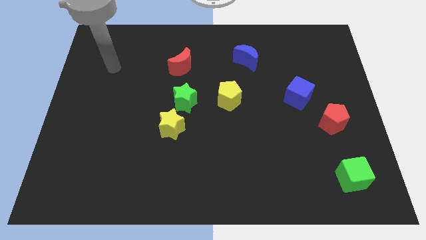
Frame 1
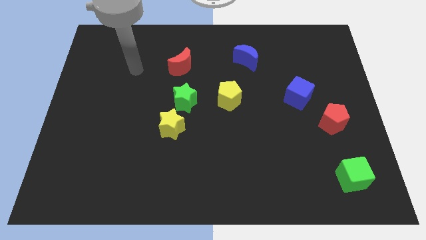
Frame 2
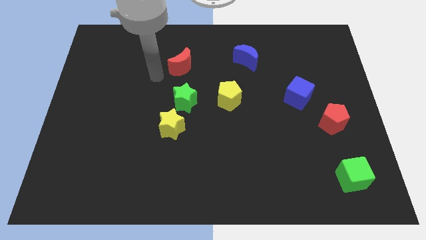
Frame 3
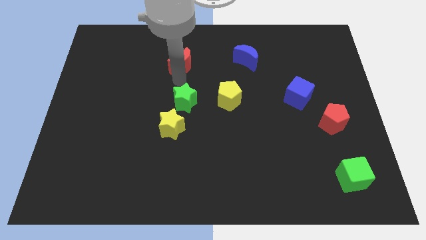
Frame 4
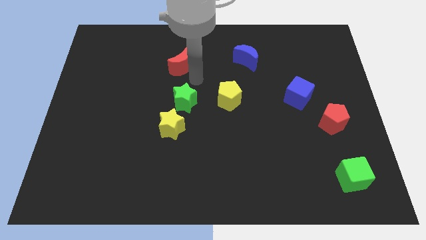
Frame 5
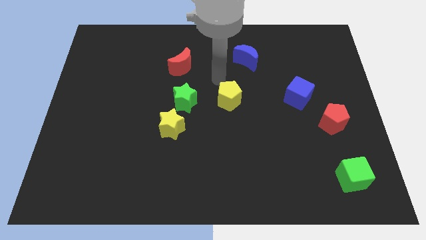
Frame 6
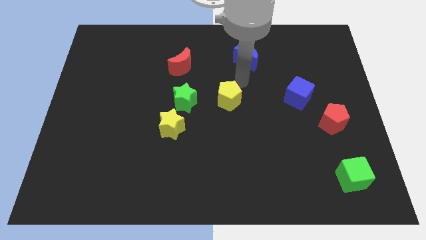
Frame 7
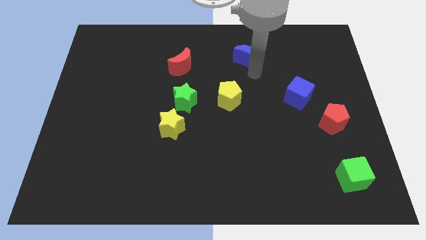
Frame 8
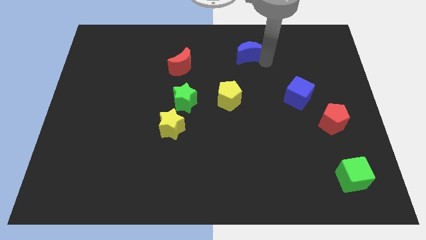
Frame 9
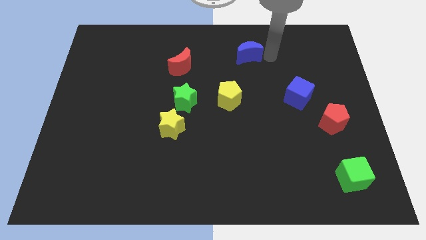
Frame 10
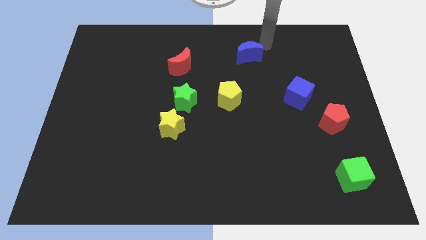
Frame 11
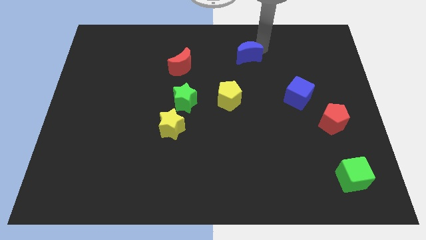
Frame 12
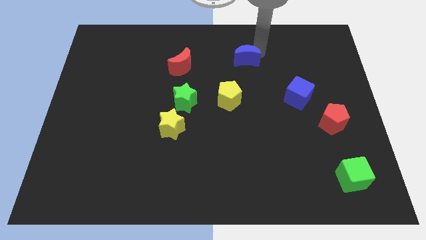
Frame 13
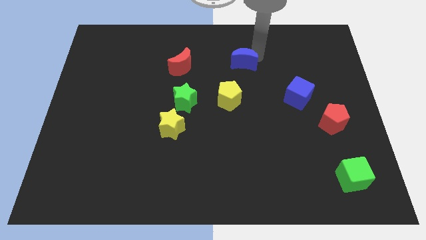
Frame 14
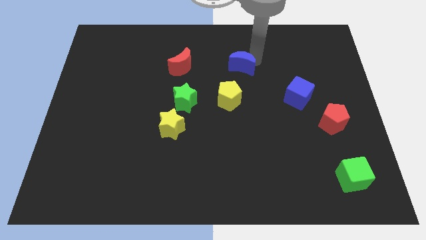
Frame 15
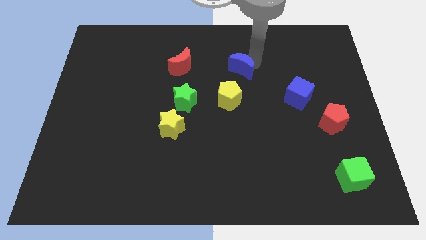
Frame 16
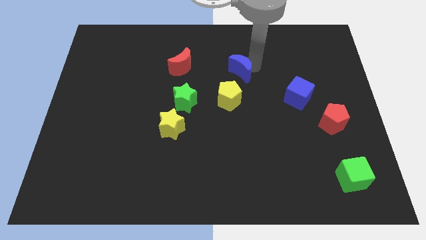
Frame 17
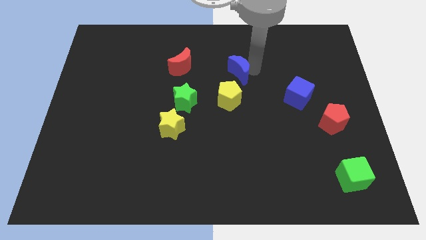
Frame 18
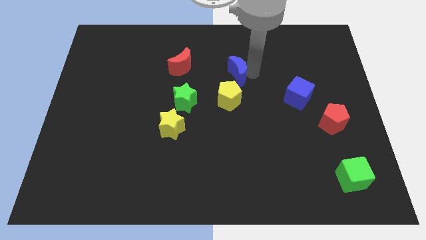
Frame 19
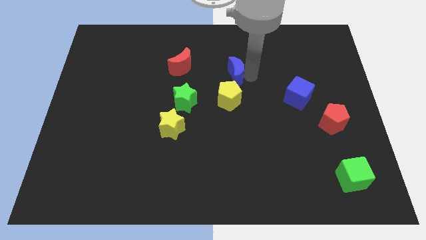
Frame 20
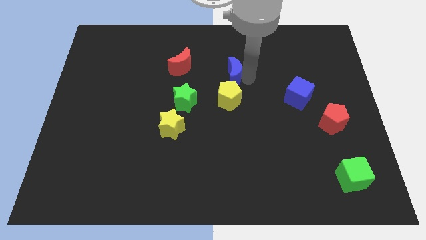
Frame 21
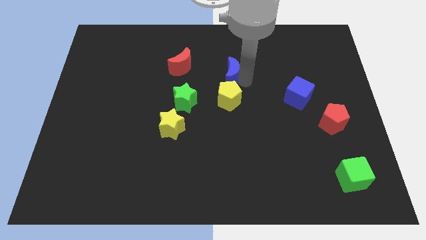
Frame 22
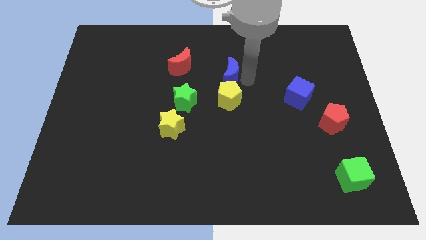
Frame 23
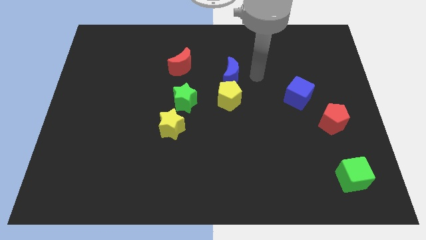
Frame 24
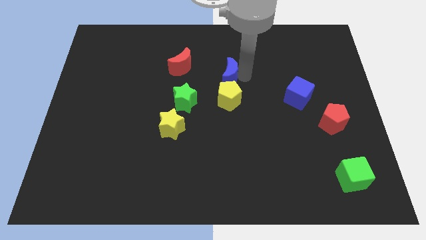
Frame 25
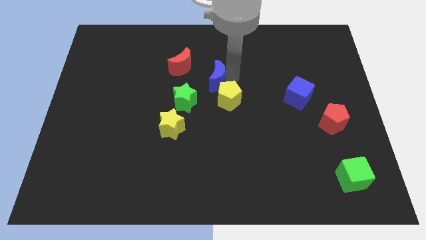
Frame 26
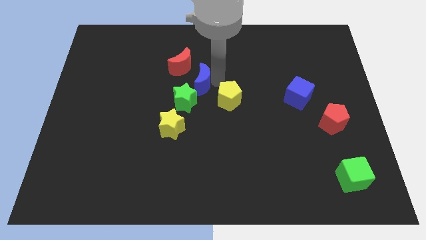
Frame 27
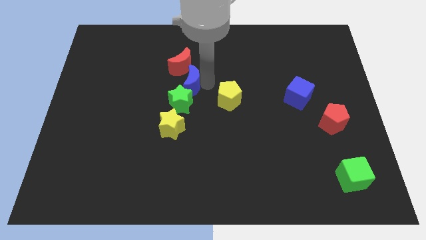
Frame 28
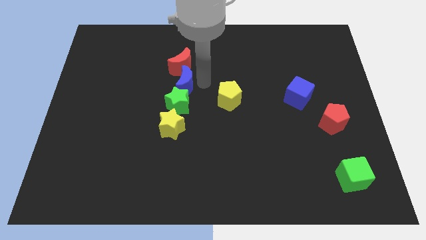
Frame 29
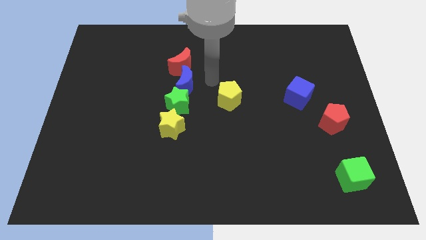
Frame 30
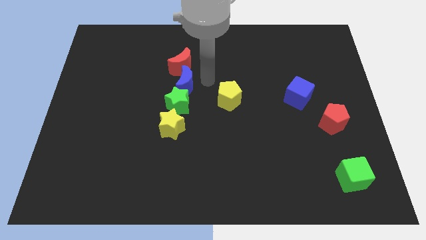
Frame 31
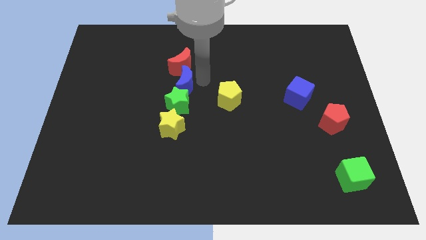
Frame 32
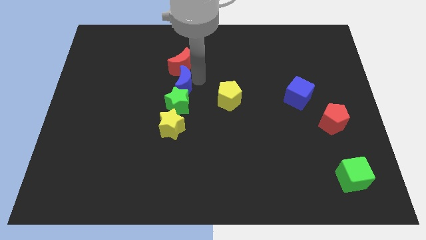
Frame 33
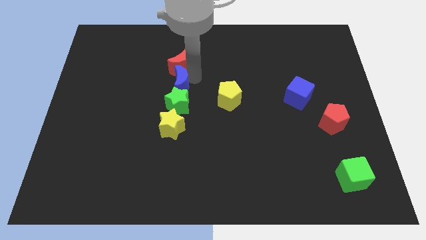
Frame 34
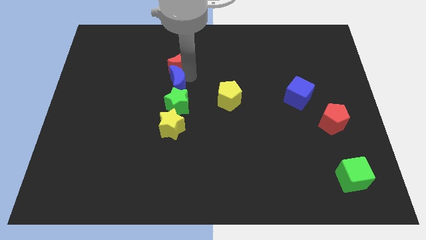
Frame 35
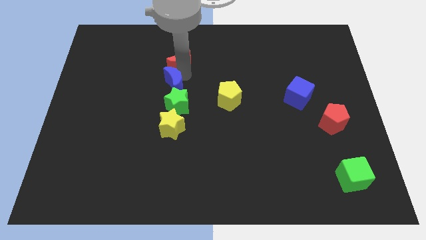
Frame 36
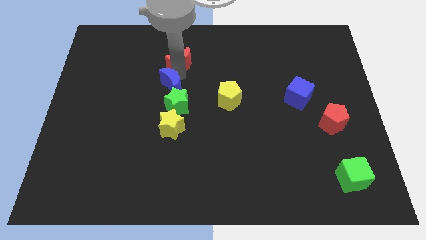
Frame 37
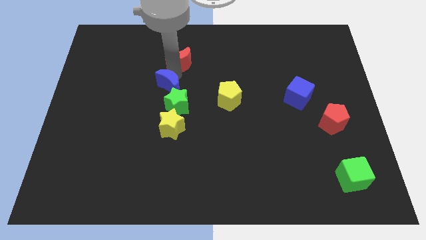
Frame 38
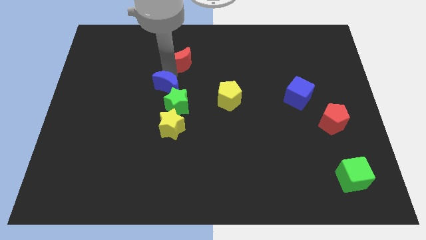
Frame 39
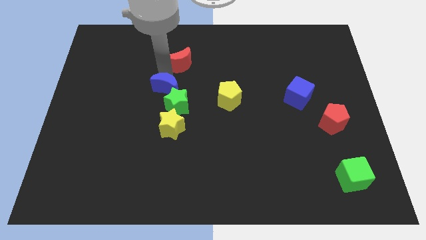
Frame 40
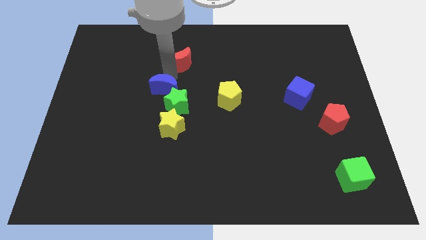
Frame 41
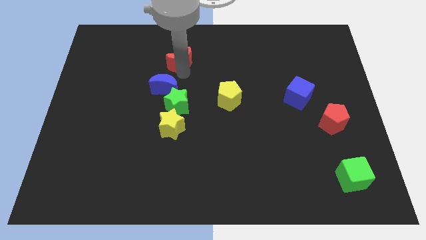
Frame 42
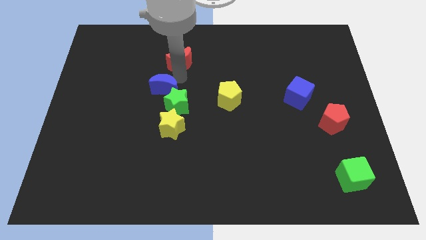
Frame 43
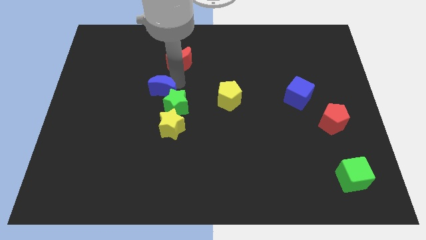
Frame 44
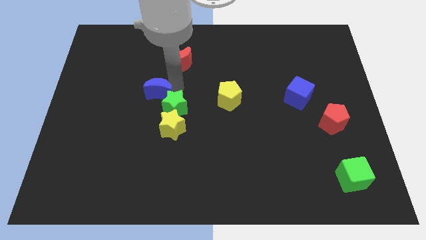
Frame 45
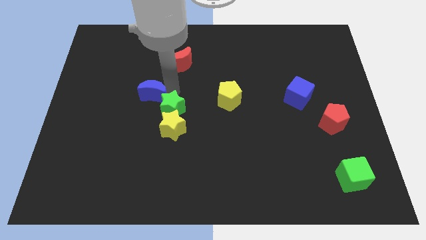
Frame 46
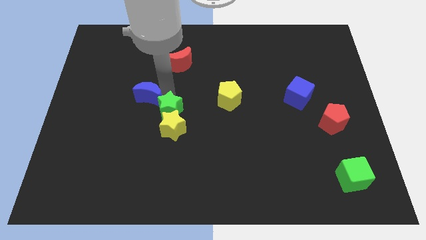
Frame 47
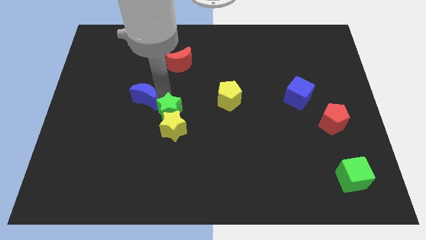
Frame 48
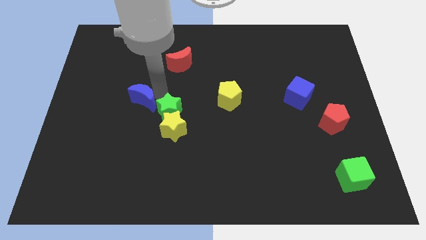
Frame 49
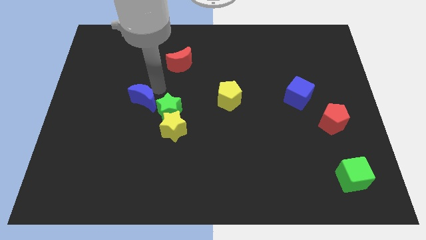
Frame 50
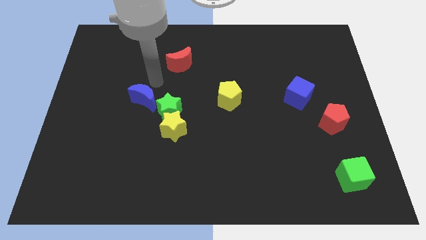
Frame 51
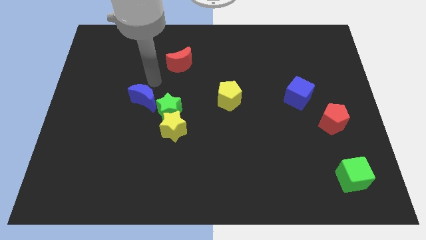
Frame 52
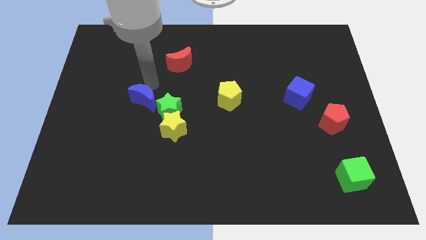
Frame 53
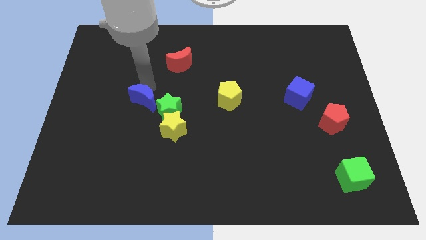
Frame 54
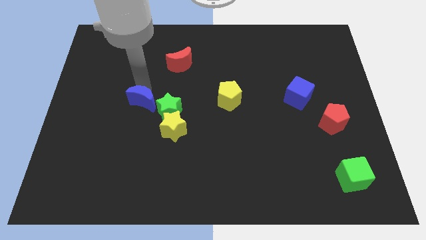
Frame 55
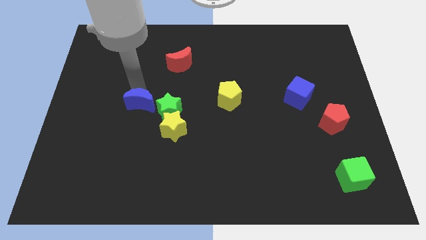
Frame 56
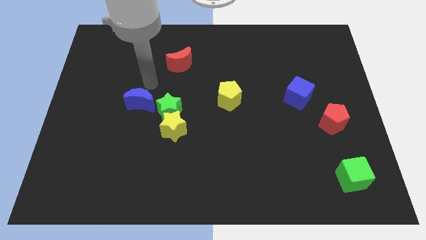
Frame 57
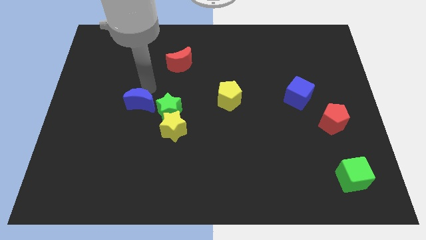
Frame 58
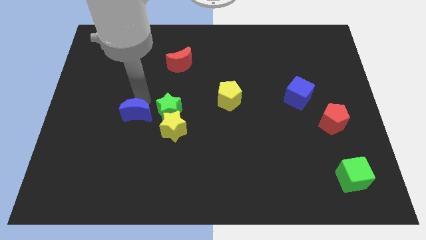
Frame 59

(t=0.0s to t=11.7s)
slide the blue moon to the left of the yellow star

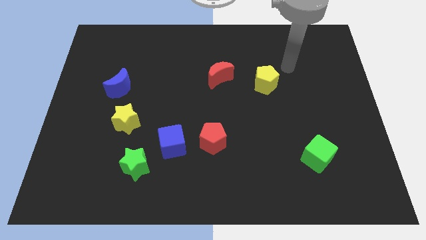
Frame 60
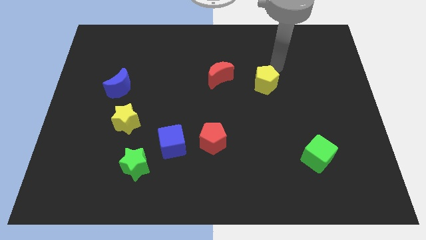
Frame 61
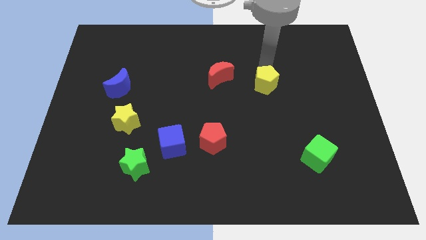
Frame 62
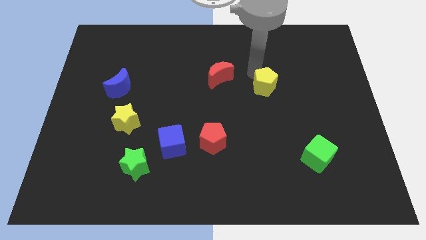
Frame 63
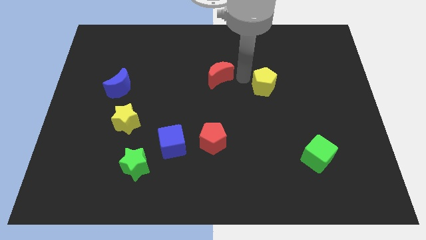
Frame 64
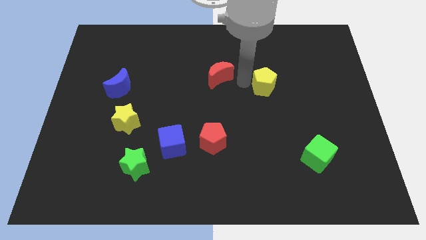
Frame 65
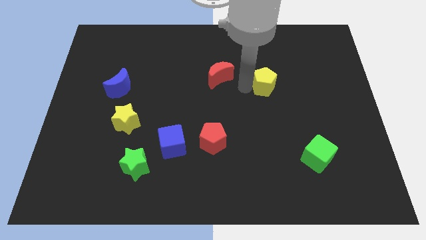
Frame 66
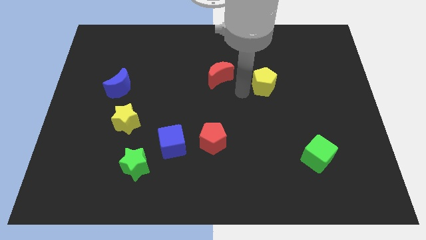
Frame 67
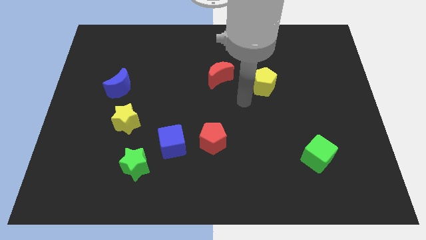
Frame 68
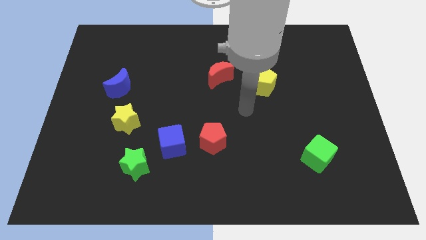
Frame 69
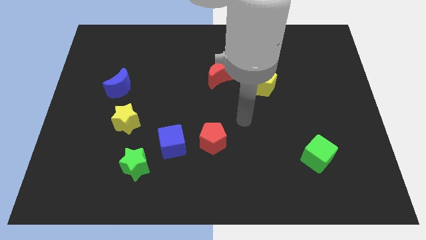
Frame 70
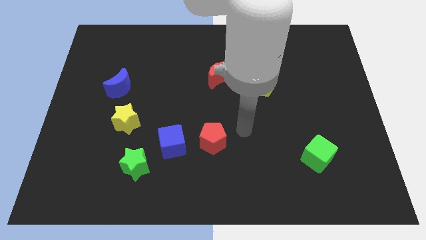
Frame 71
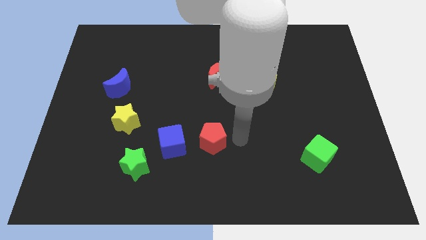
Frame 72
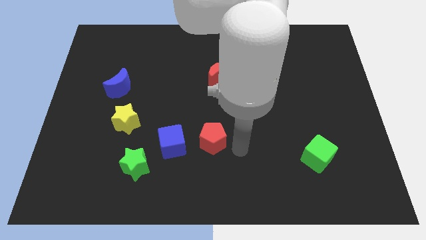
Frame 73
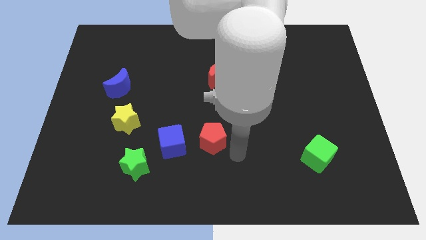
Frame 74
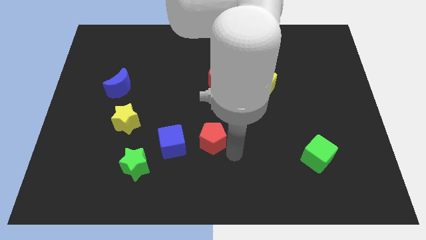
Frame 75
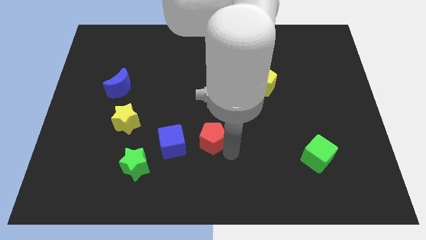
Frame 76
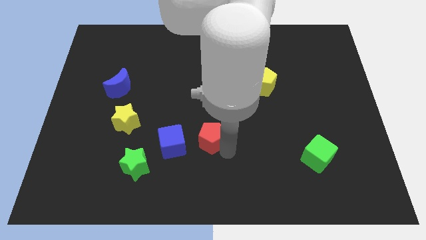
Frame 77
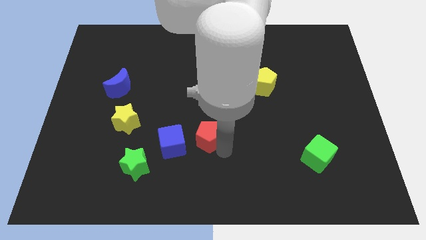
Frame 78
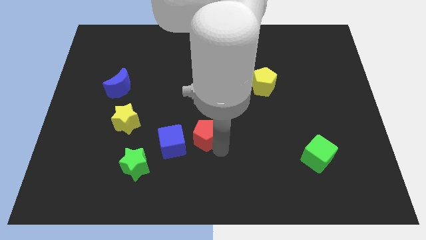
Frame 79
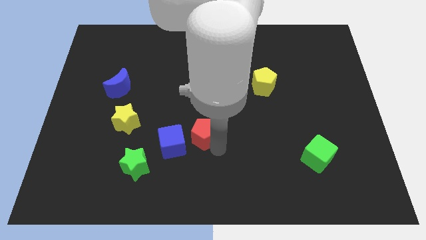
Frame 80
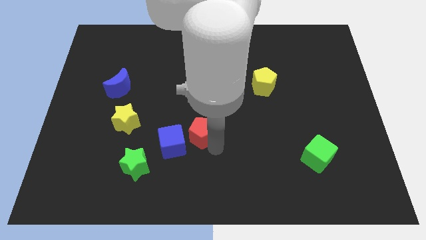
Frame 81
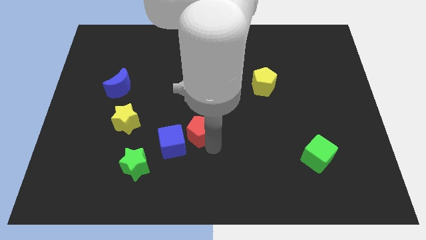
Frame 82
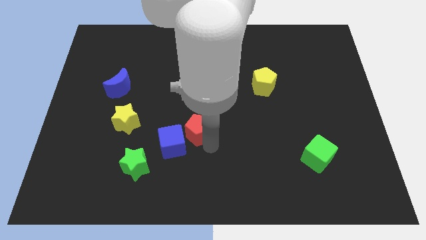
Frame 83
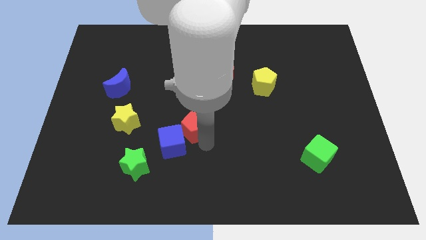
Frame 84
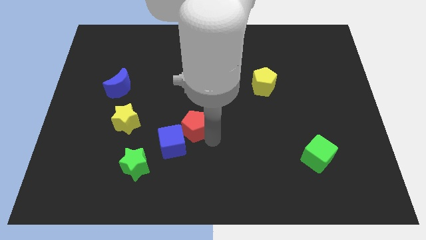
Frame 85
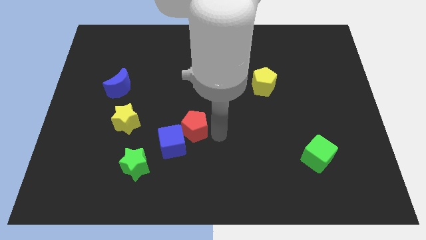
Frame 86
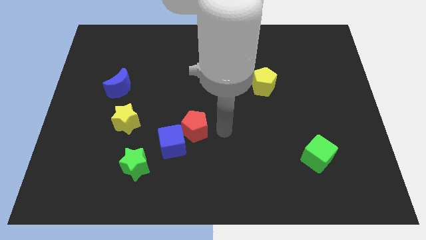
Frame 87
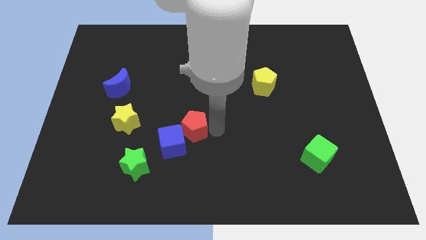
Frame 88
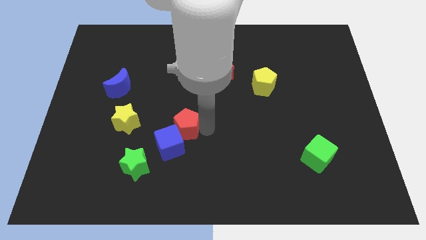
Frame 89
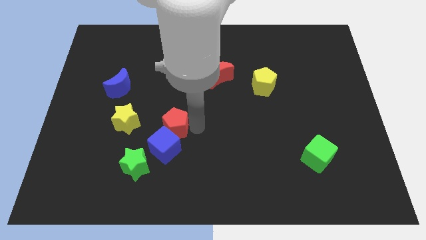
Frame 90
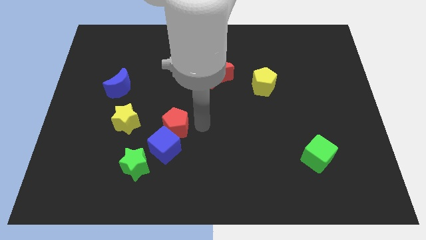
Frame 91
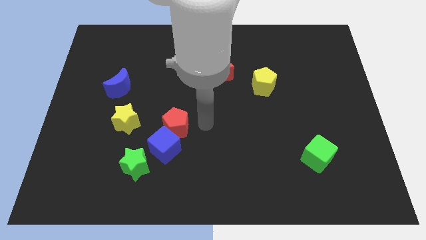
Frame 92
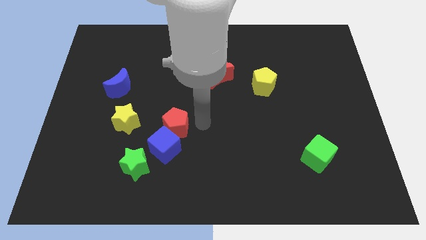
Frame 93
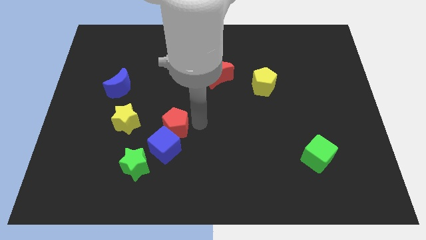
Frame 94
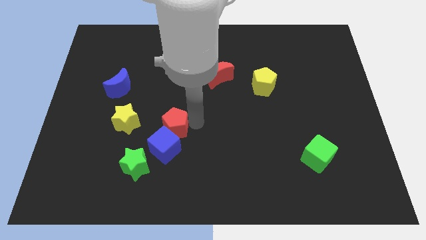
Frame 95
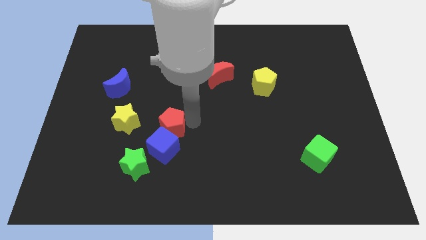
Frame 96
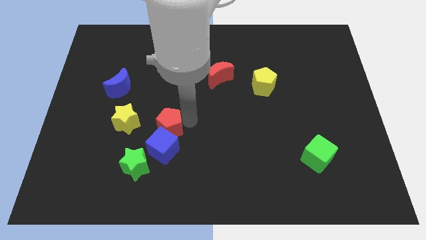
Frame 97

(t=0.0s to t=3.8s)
push the red pentagon to the top left side of the blue cube
